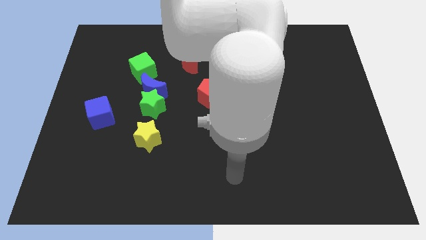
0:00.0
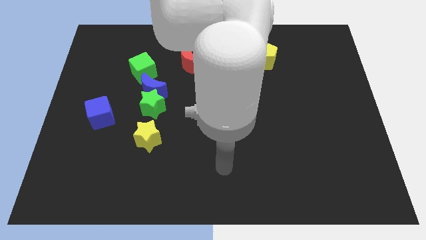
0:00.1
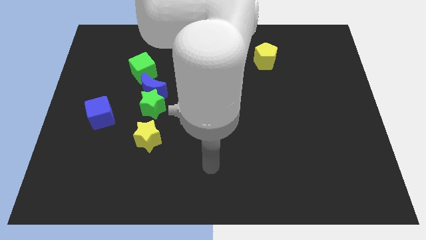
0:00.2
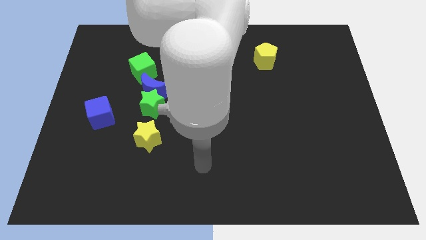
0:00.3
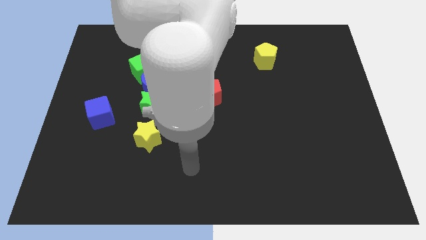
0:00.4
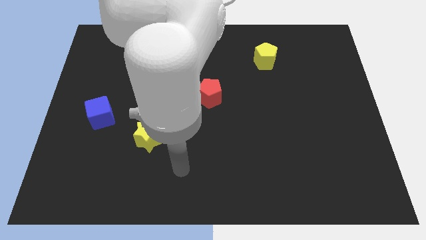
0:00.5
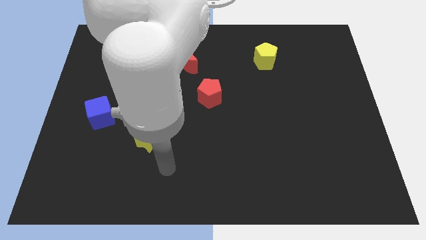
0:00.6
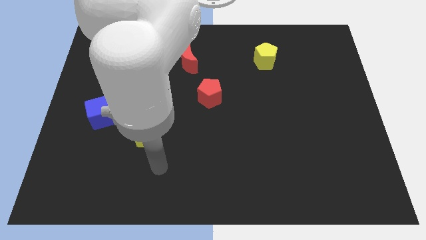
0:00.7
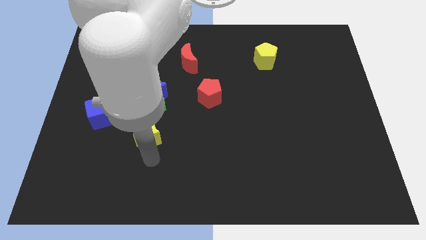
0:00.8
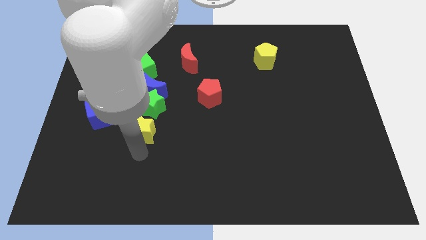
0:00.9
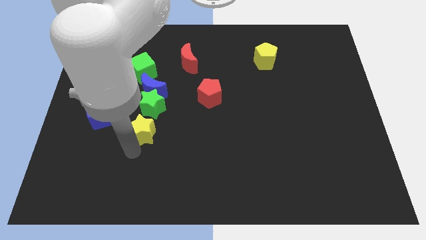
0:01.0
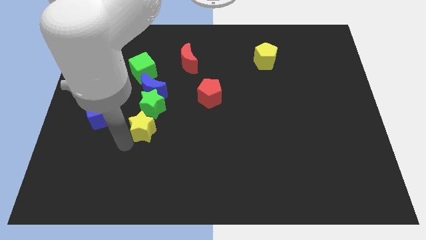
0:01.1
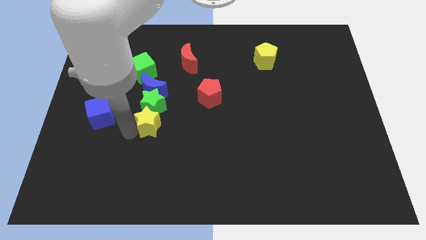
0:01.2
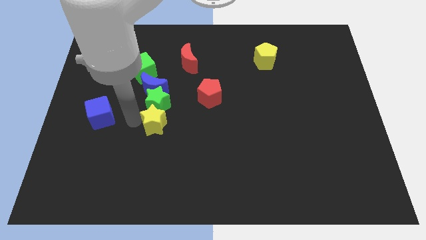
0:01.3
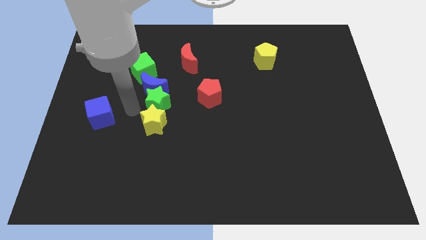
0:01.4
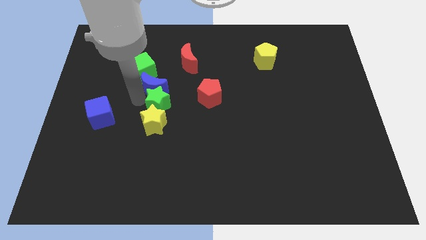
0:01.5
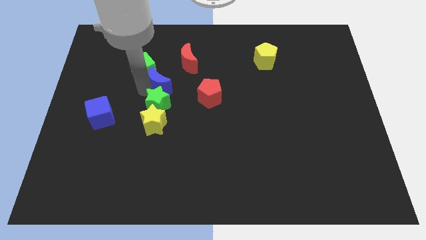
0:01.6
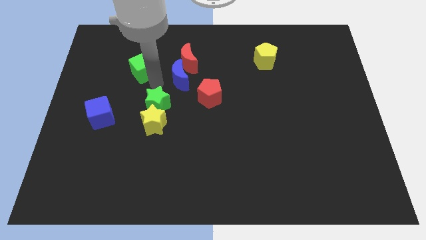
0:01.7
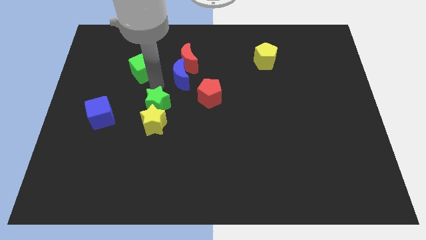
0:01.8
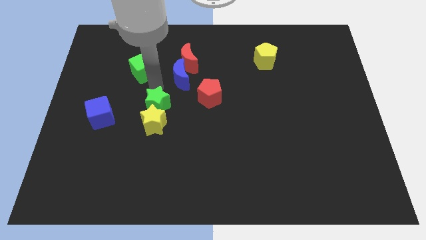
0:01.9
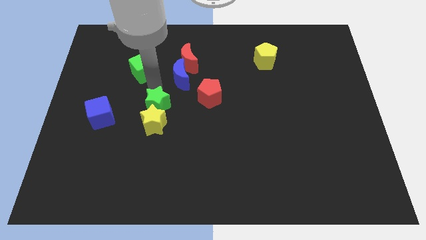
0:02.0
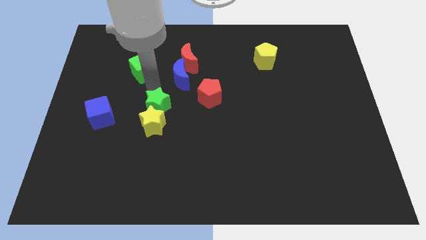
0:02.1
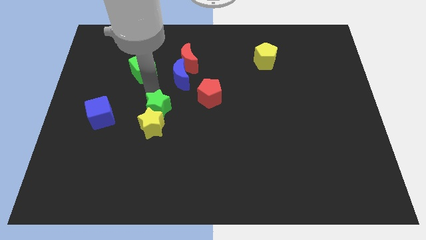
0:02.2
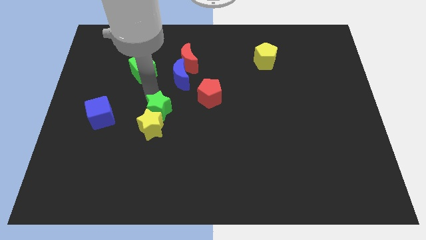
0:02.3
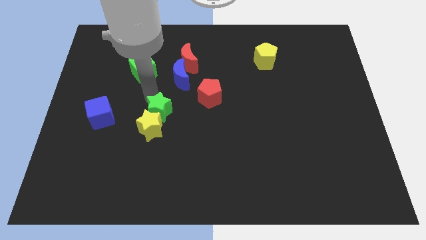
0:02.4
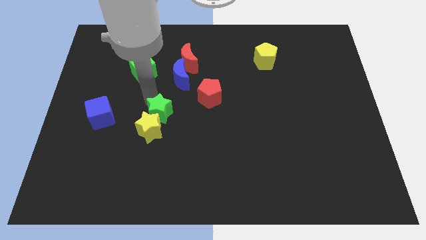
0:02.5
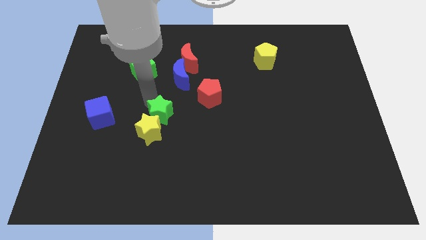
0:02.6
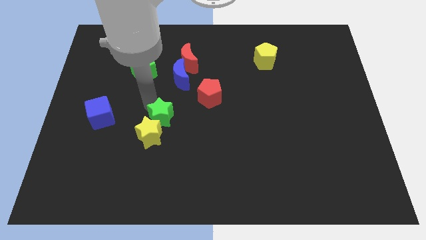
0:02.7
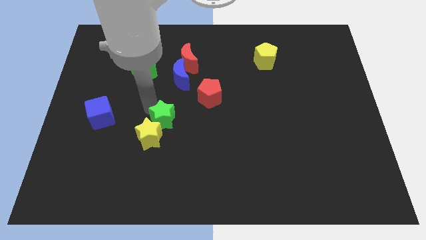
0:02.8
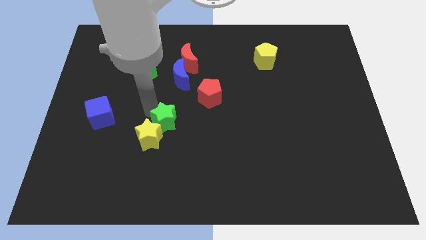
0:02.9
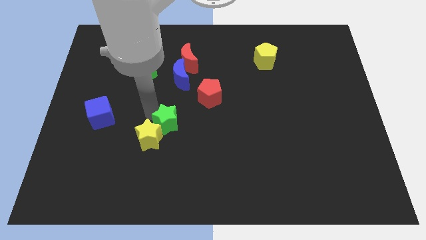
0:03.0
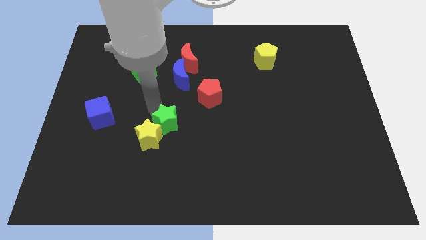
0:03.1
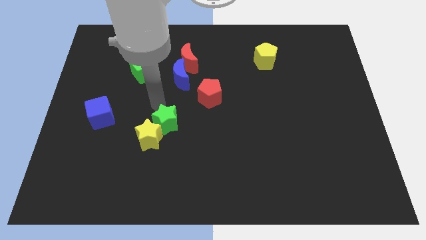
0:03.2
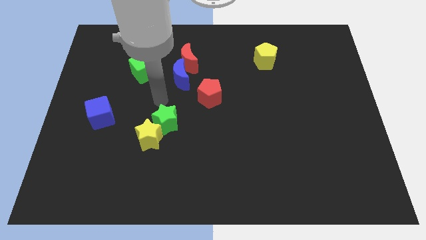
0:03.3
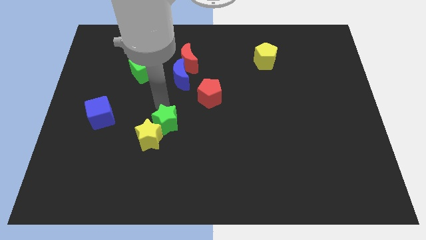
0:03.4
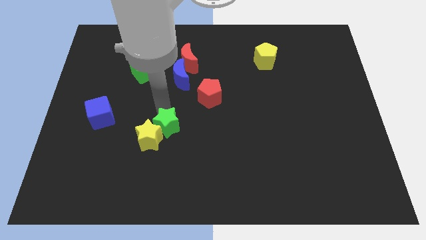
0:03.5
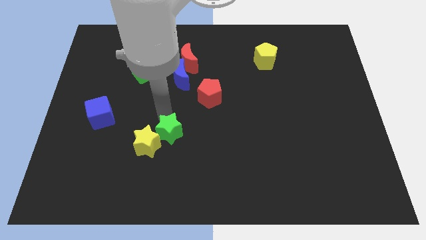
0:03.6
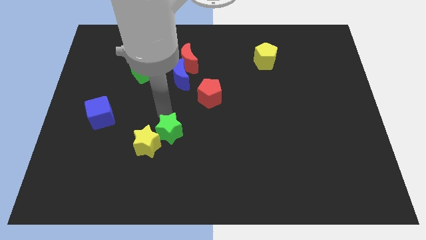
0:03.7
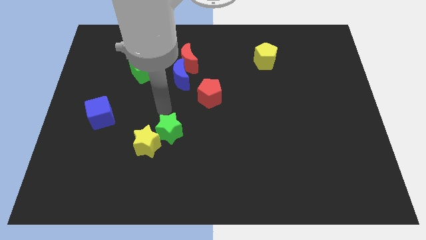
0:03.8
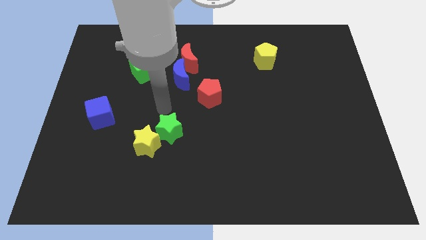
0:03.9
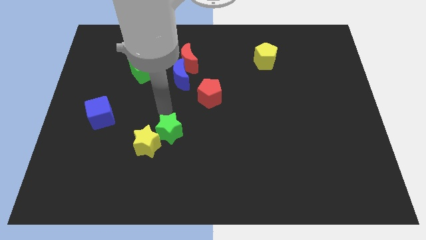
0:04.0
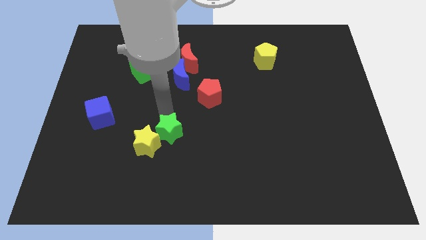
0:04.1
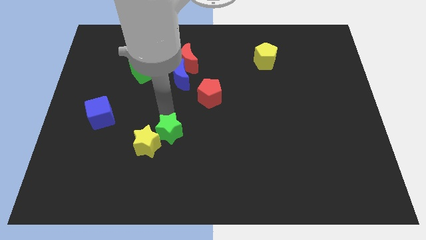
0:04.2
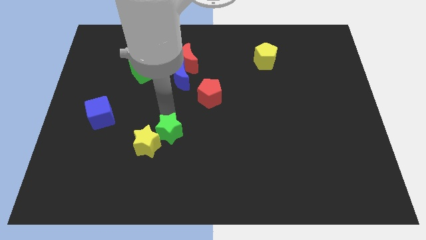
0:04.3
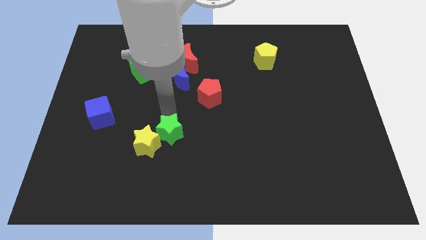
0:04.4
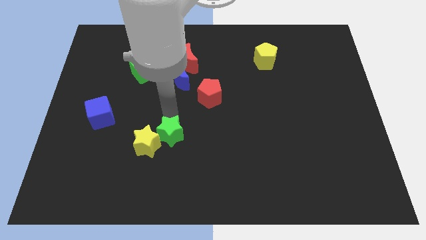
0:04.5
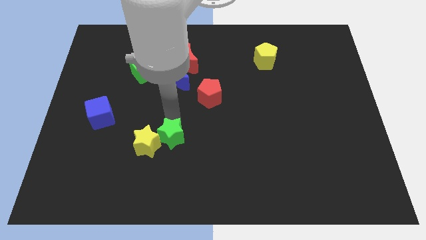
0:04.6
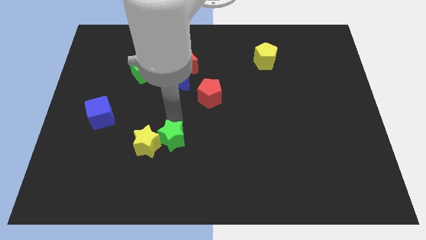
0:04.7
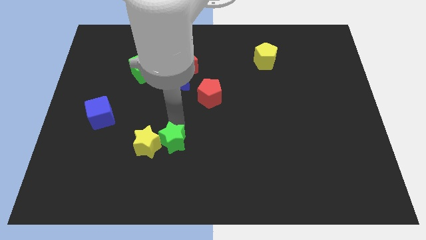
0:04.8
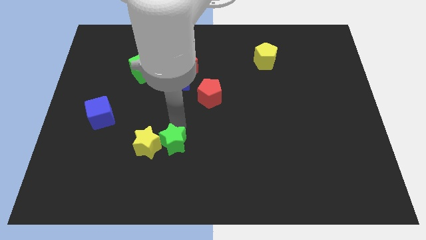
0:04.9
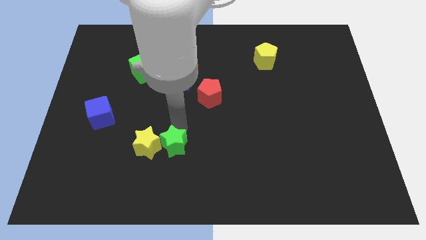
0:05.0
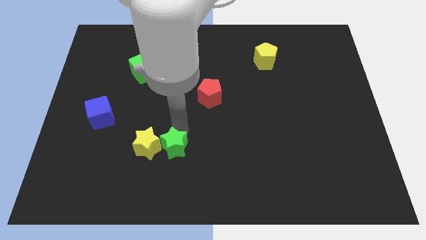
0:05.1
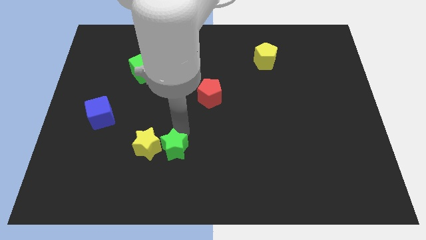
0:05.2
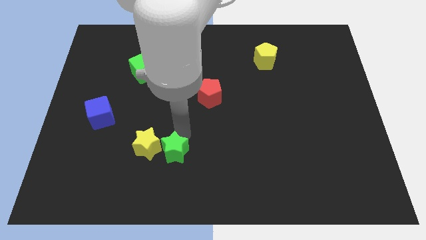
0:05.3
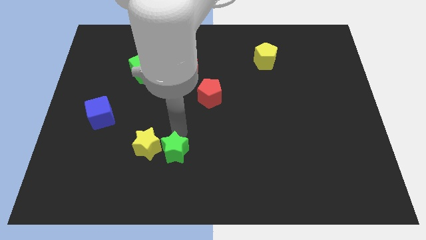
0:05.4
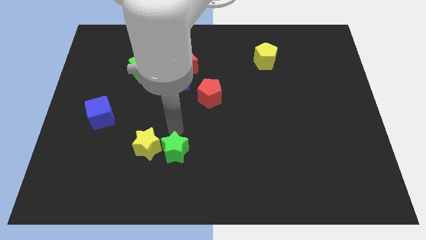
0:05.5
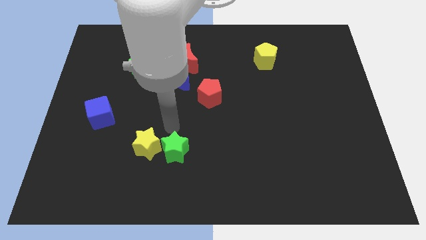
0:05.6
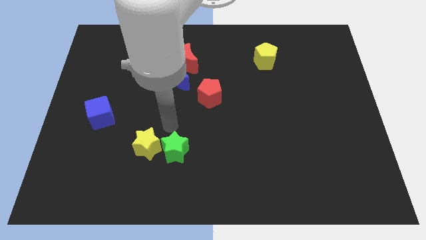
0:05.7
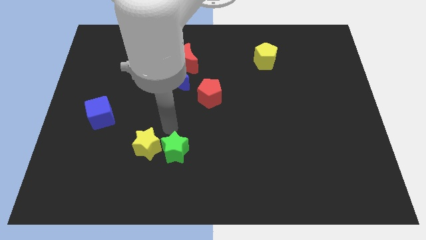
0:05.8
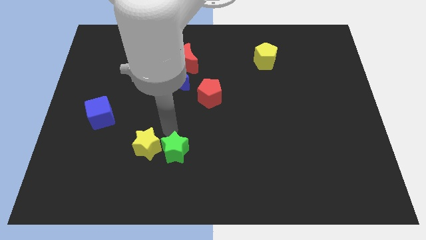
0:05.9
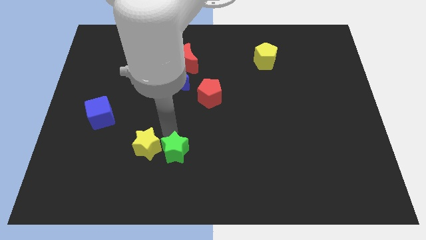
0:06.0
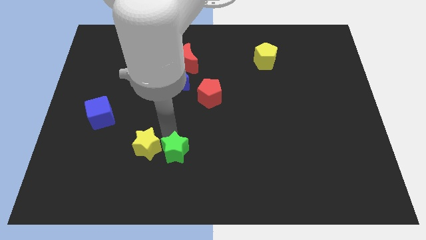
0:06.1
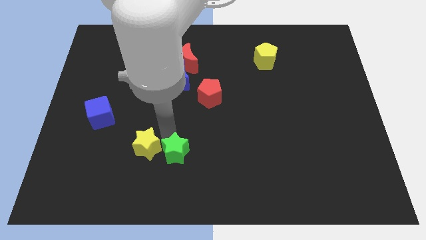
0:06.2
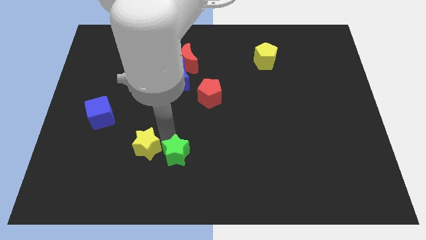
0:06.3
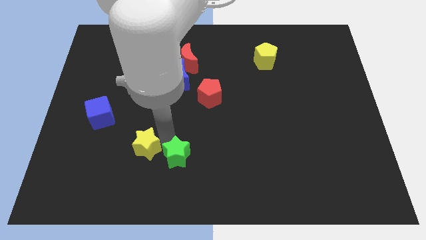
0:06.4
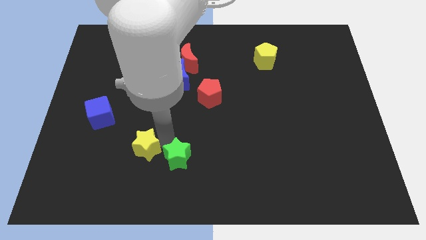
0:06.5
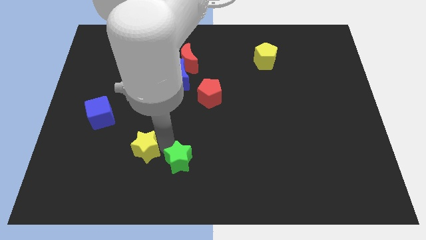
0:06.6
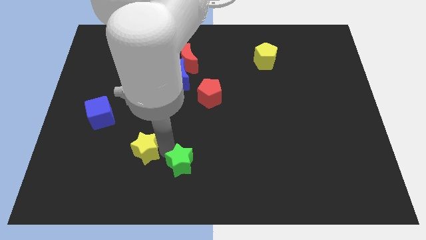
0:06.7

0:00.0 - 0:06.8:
put the green star to the bottom side
